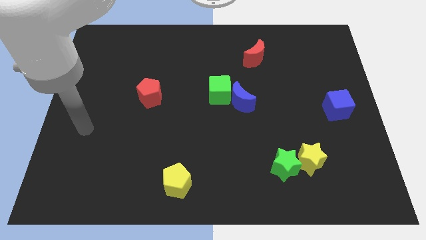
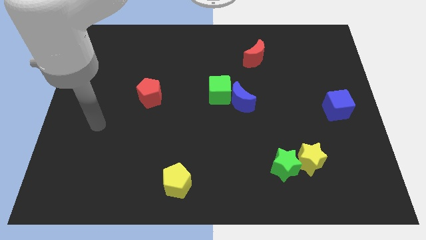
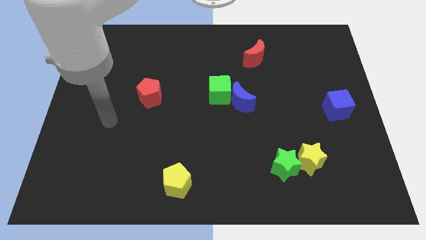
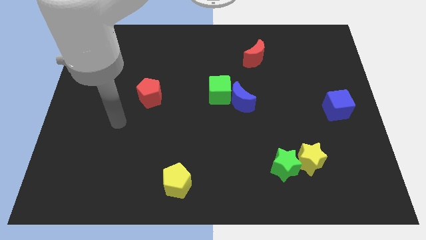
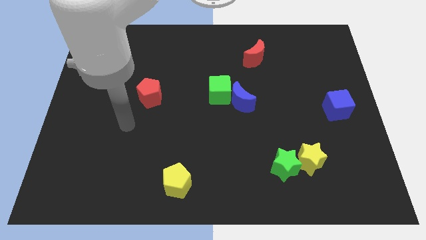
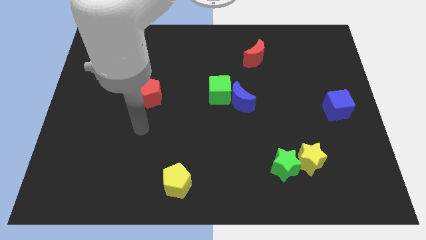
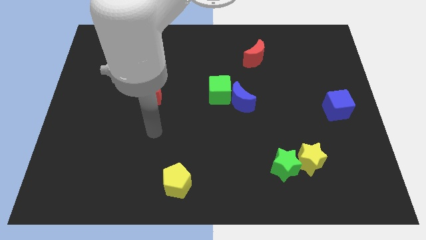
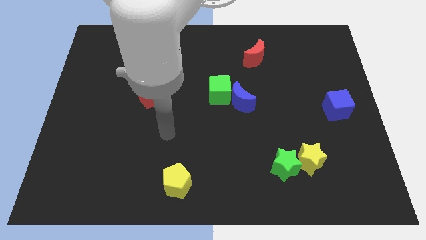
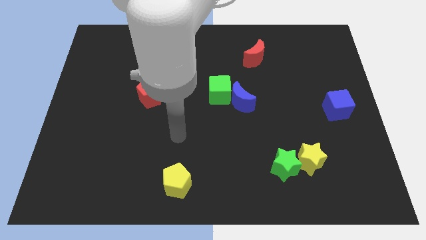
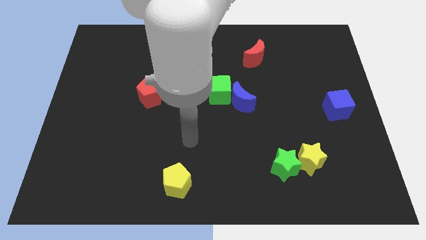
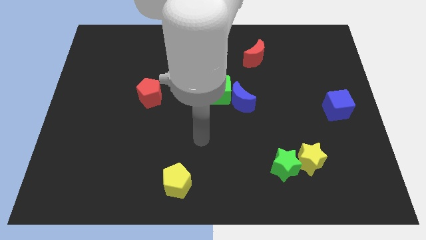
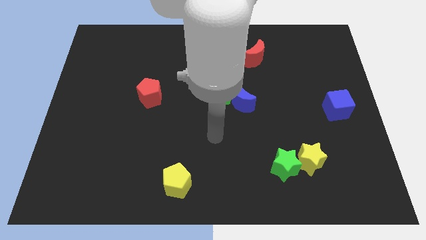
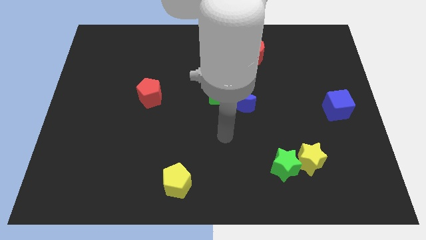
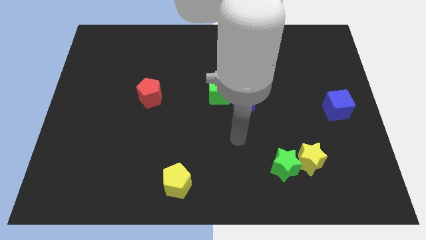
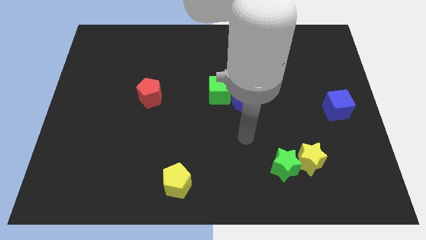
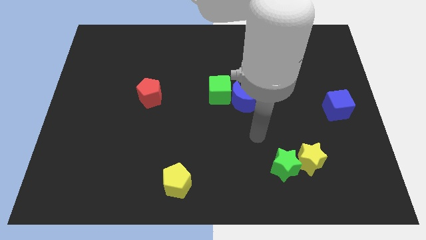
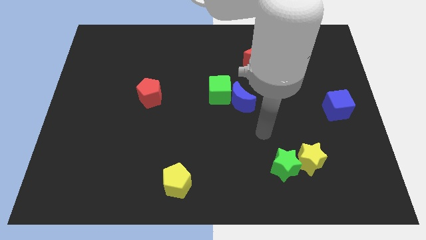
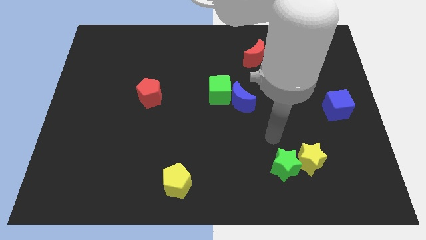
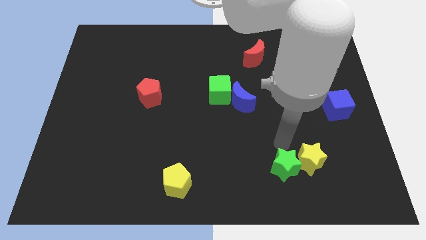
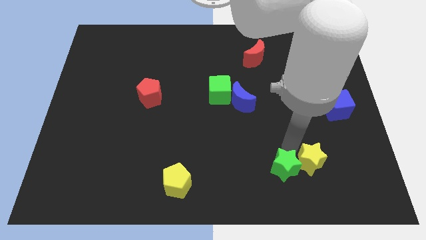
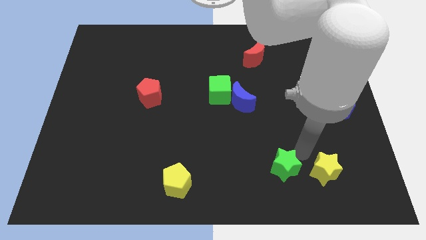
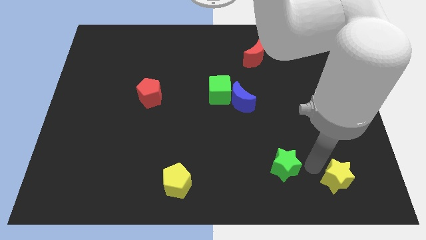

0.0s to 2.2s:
pull the green star apart from the yellow star

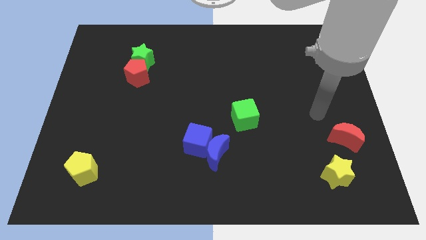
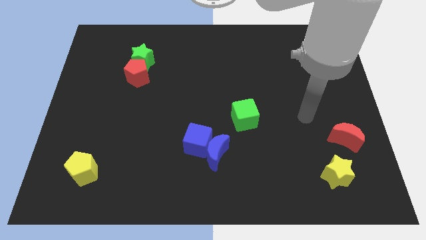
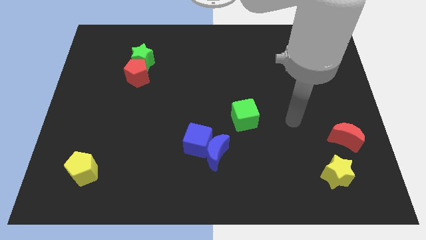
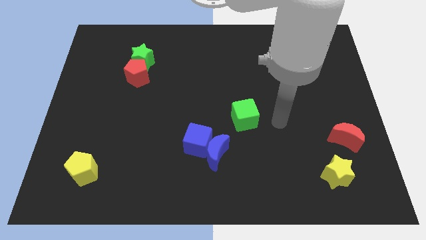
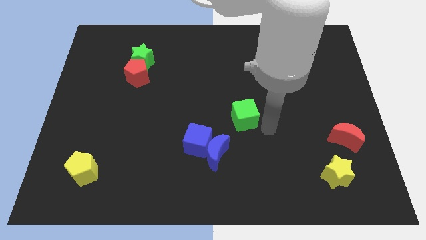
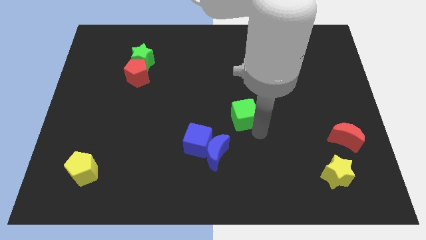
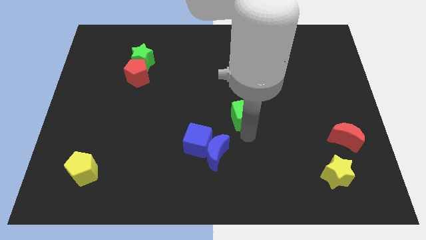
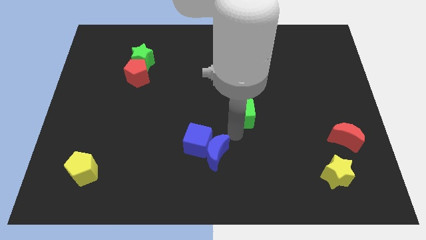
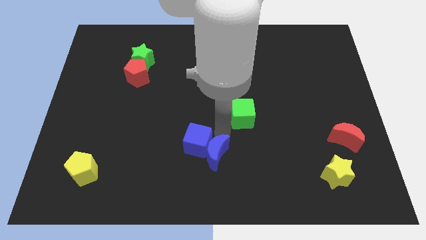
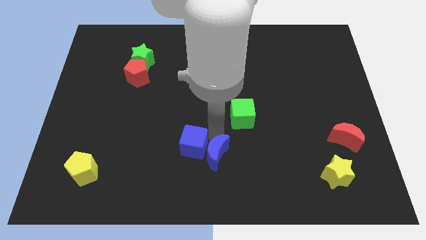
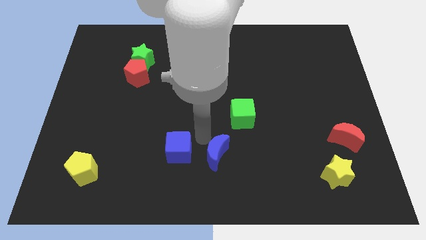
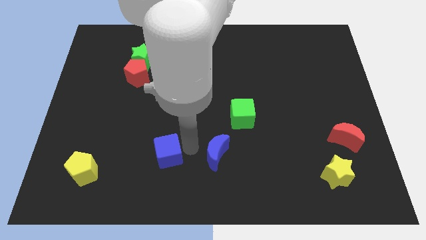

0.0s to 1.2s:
separate the blue moon from the blue cube

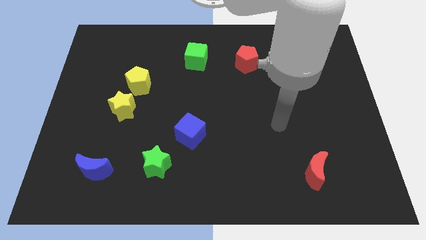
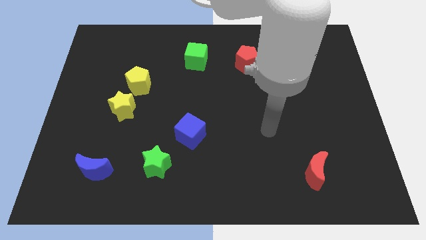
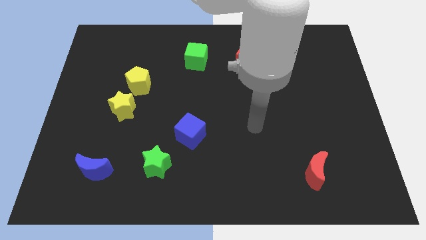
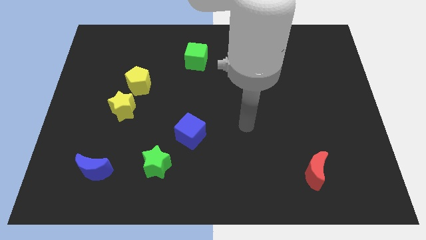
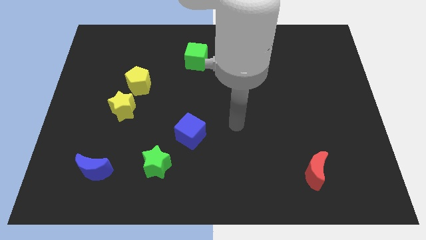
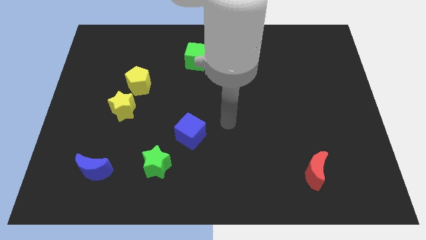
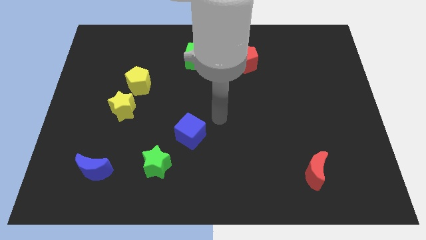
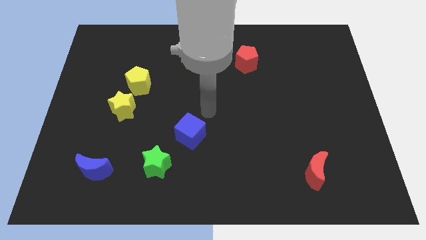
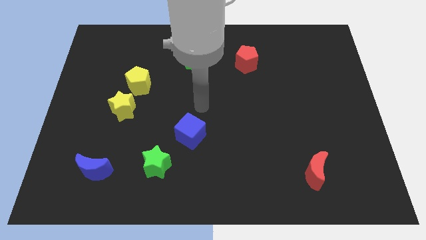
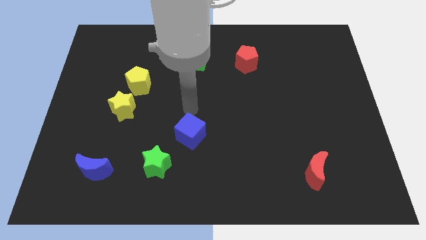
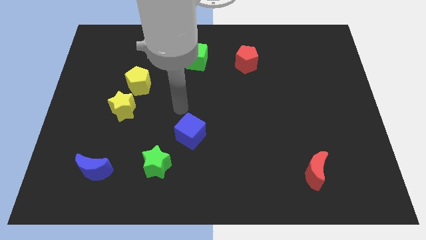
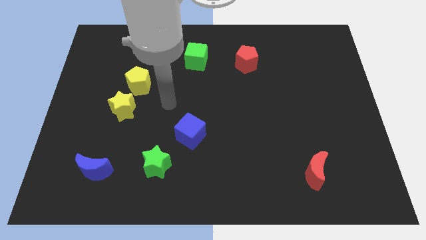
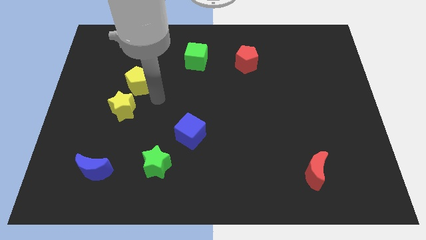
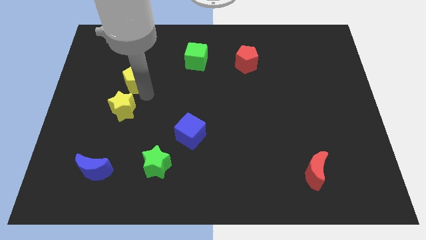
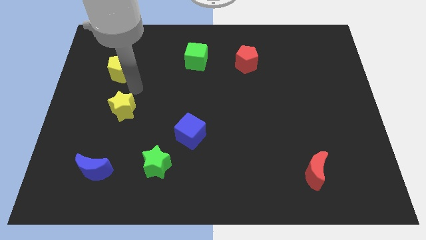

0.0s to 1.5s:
separate the yellow star from the yellow pentagon

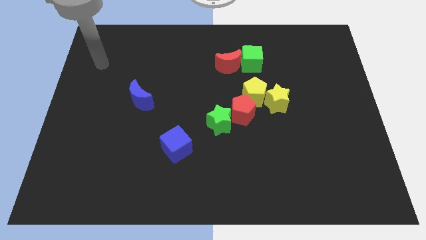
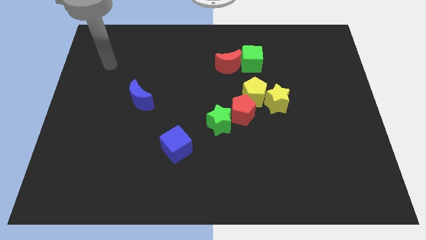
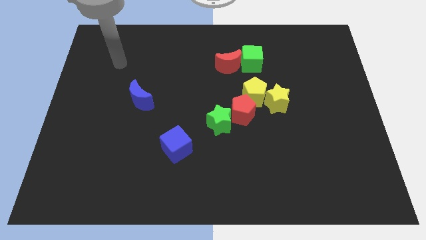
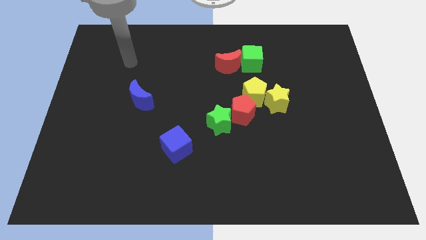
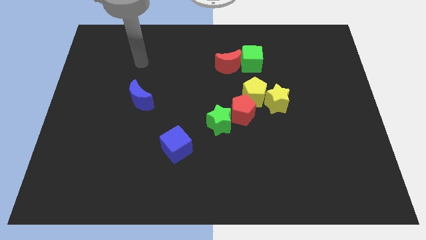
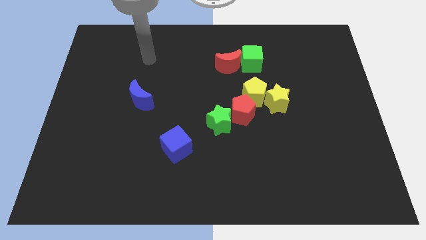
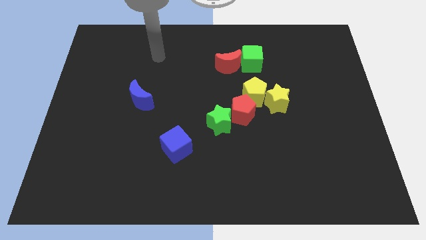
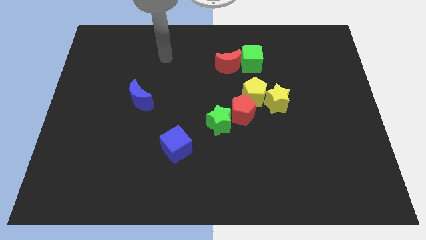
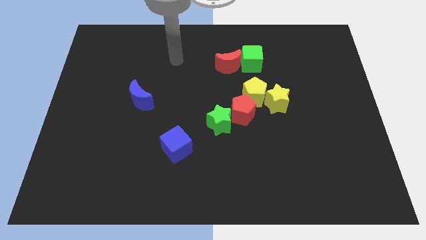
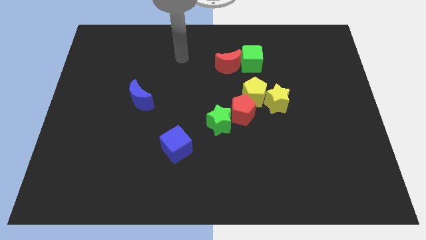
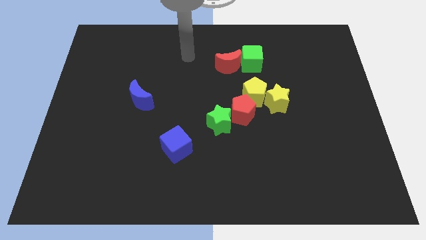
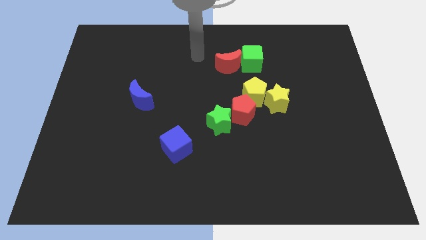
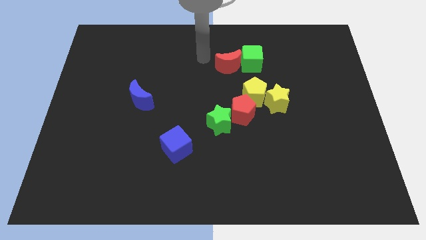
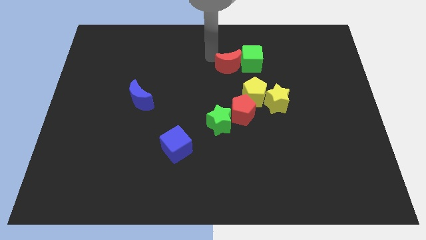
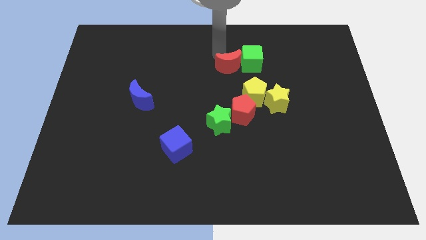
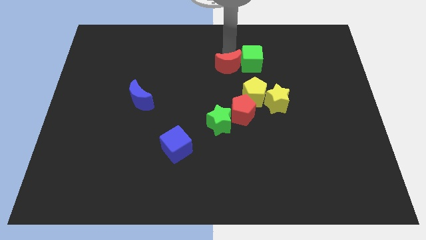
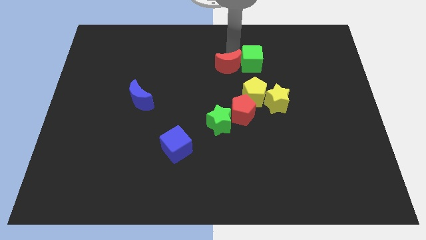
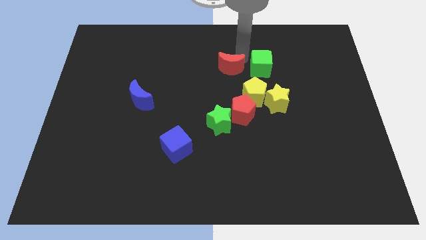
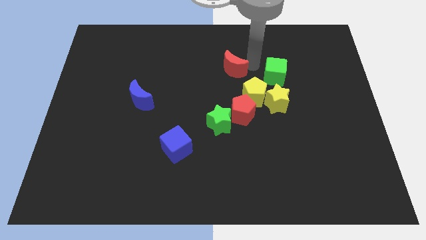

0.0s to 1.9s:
separate the red moon from the green cube

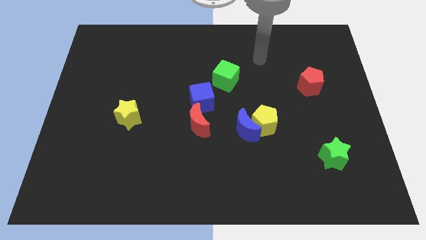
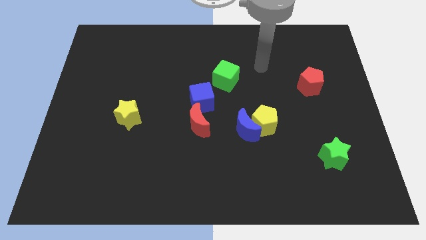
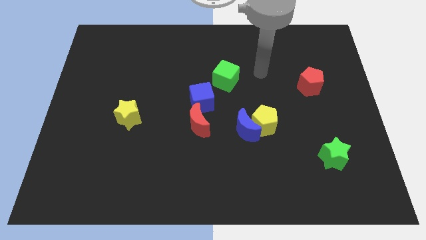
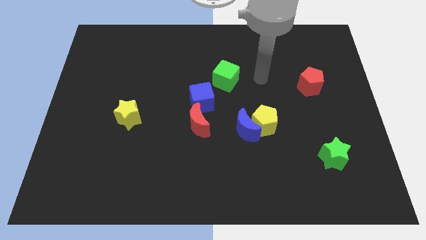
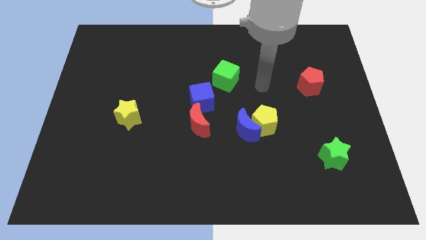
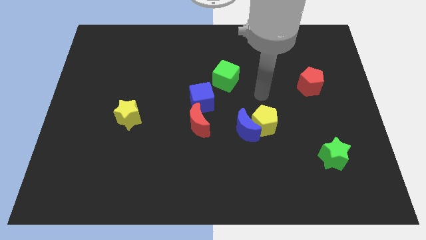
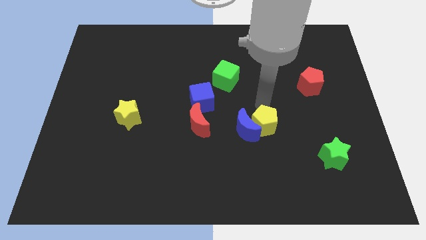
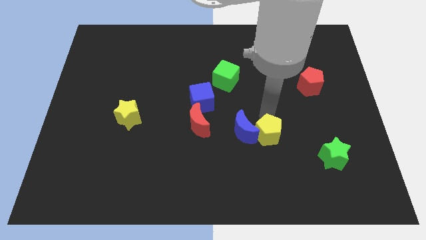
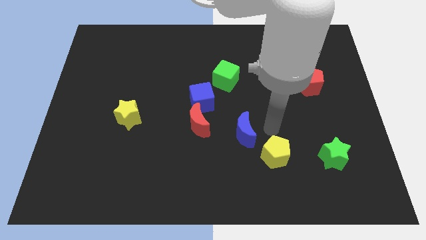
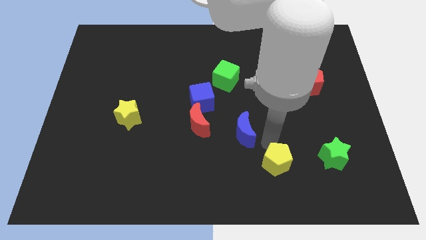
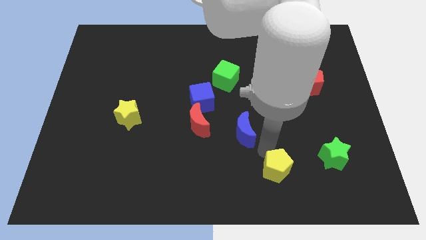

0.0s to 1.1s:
move the blue moon away from the yellow pentagon

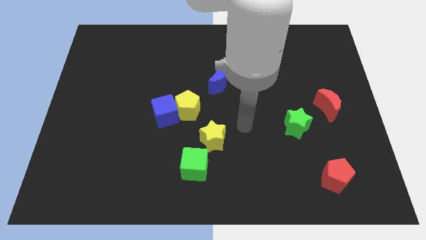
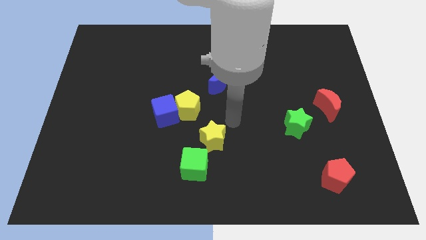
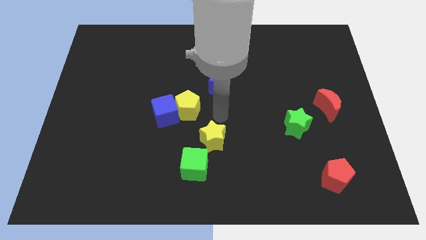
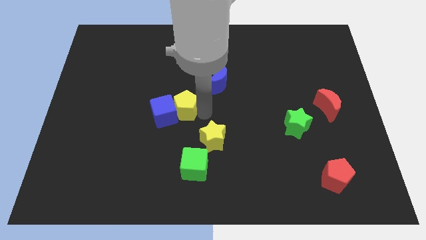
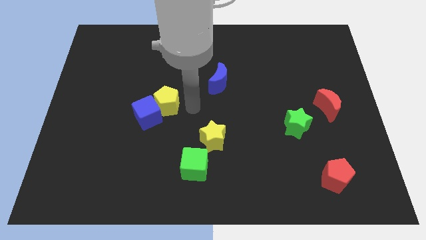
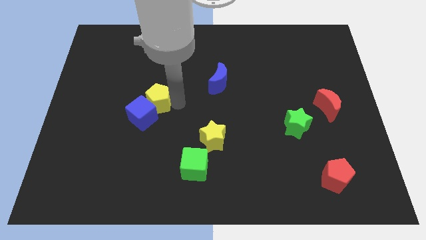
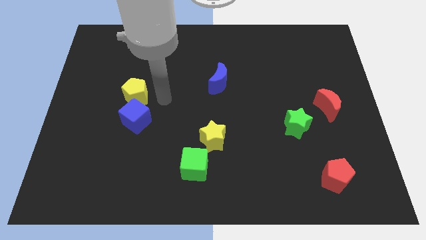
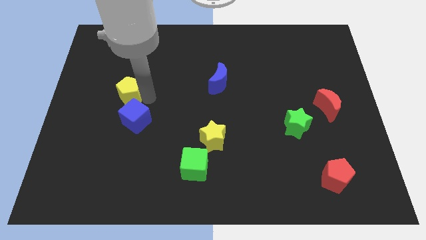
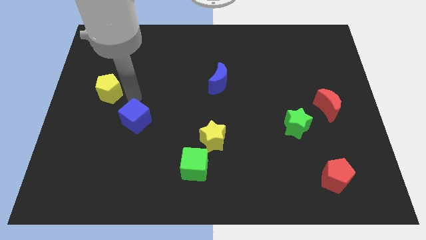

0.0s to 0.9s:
pull the blue cube apart from the yellow pentagon

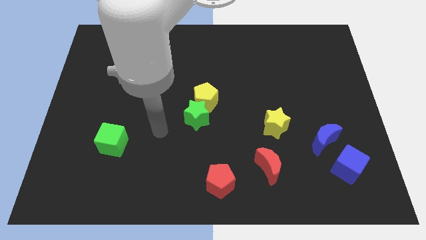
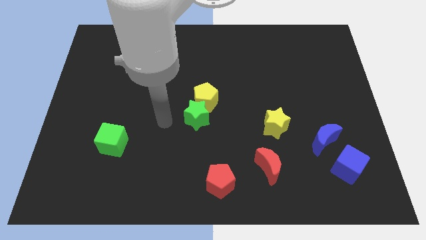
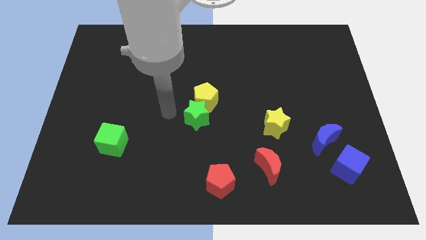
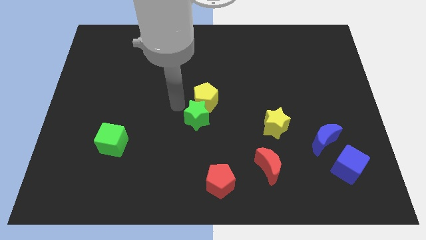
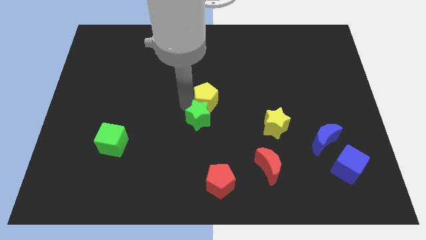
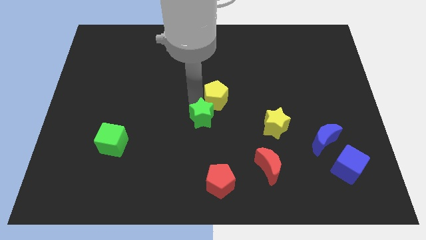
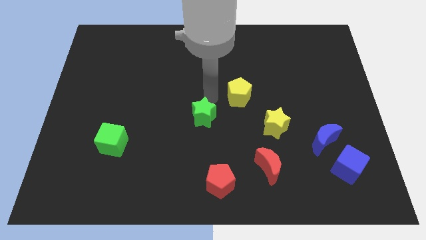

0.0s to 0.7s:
move the green star away from the yellow pentagon
